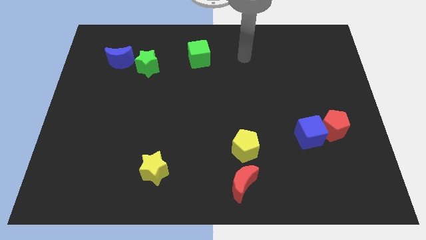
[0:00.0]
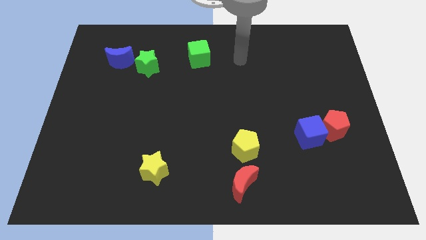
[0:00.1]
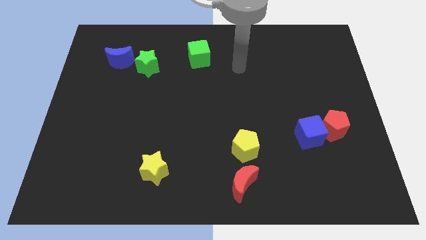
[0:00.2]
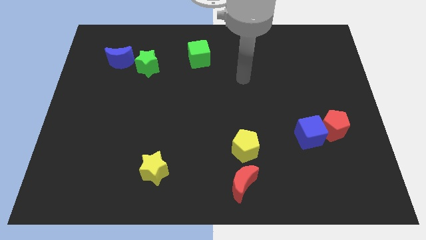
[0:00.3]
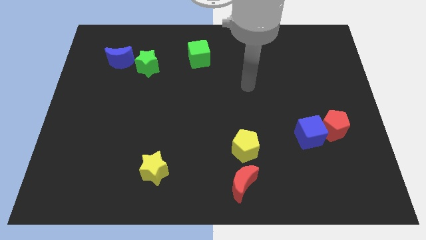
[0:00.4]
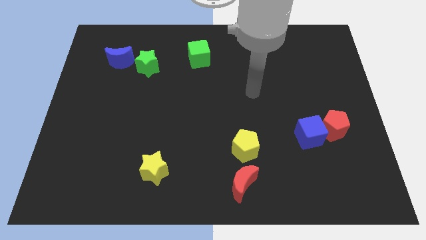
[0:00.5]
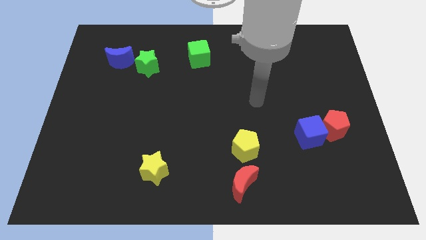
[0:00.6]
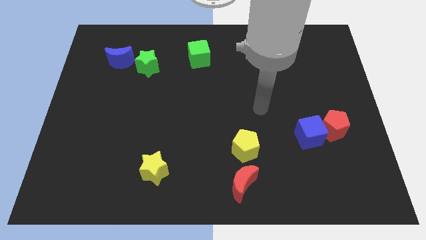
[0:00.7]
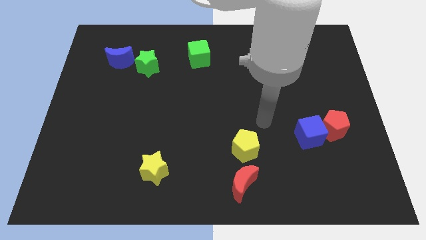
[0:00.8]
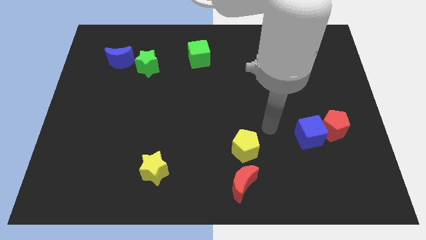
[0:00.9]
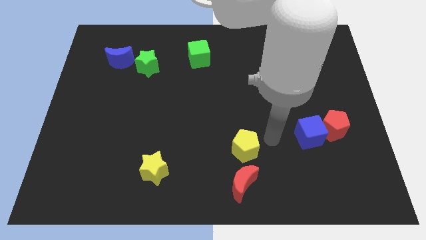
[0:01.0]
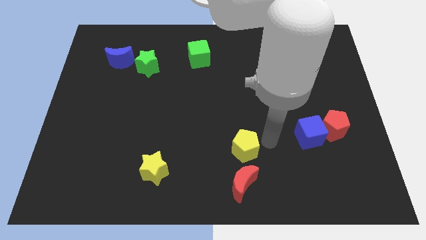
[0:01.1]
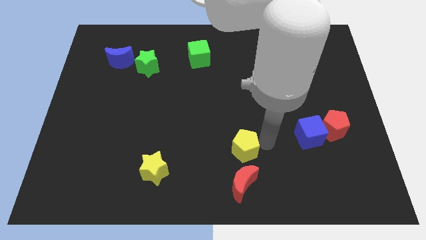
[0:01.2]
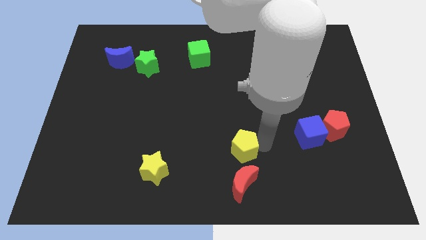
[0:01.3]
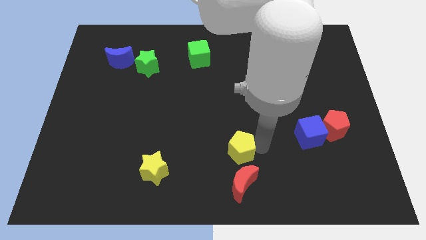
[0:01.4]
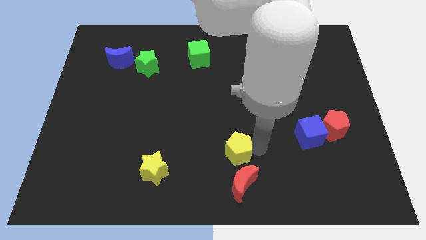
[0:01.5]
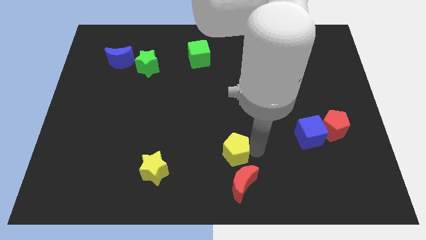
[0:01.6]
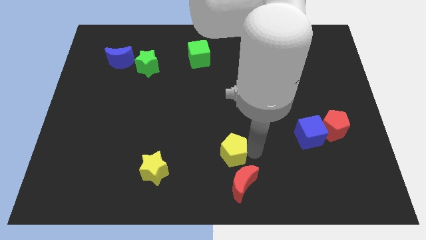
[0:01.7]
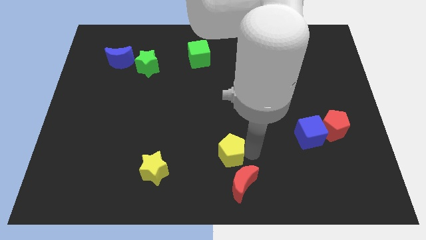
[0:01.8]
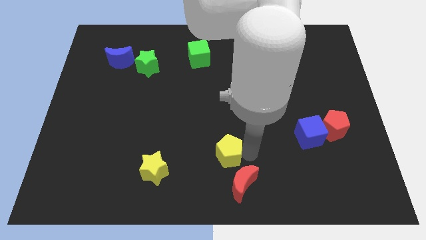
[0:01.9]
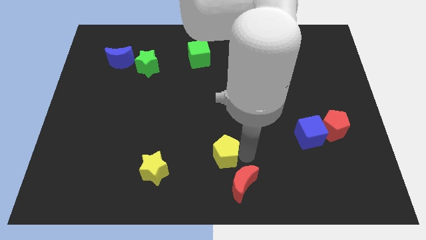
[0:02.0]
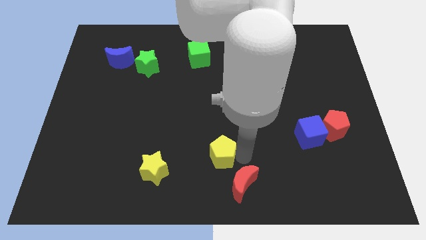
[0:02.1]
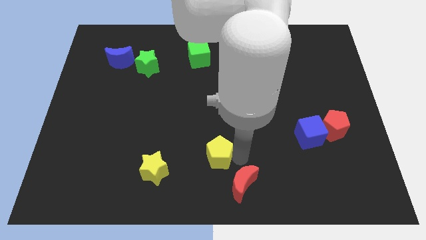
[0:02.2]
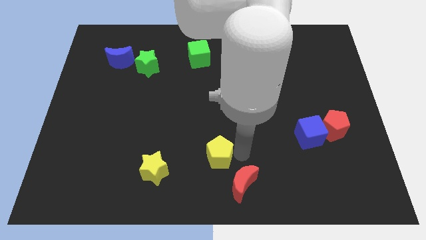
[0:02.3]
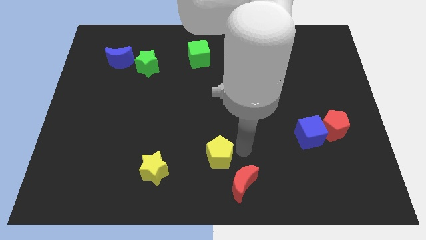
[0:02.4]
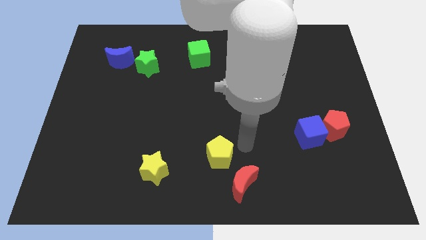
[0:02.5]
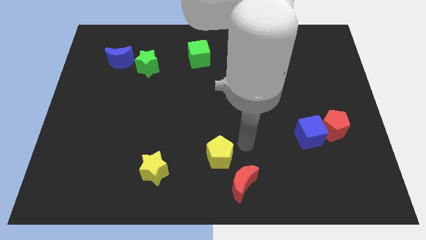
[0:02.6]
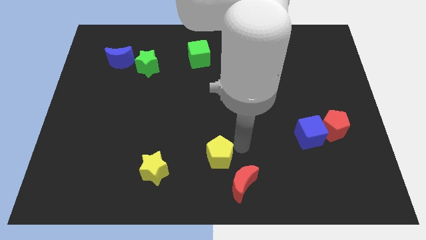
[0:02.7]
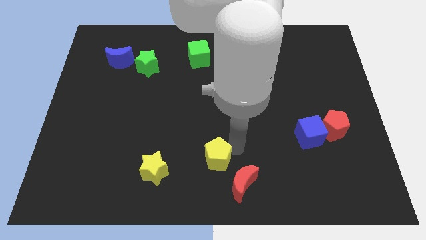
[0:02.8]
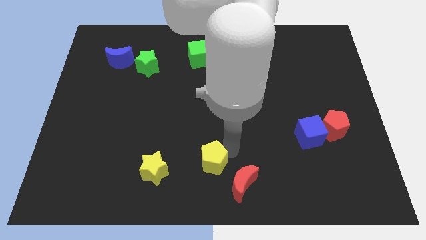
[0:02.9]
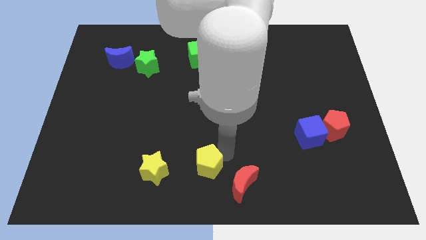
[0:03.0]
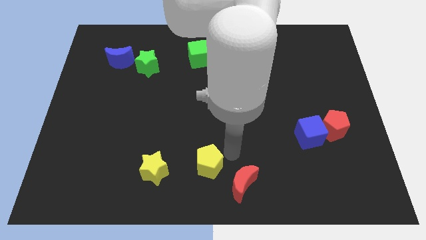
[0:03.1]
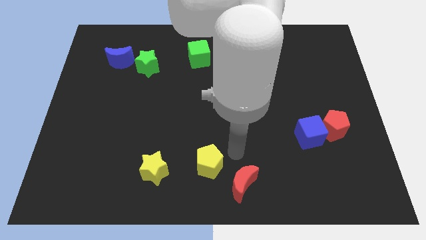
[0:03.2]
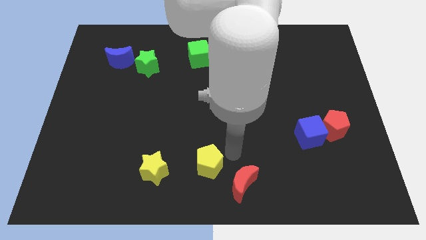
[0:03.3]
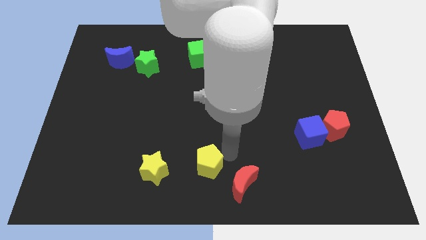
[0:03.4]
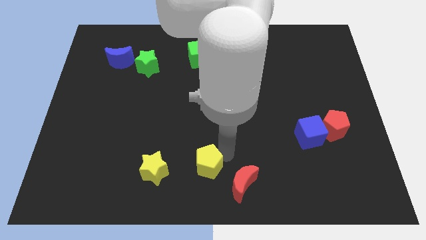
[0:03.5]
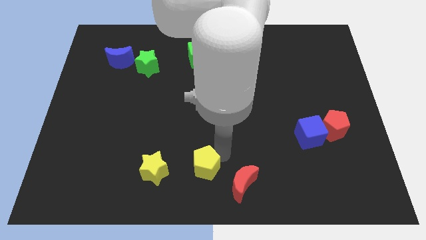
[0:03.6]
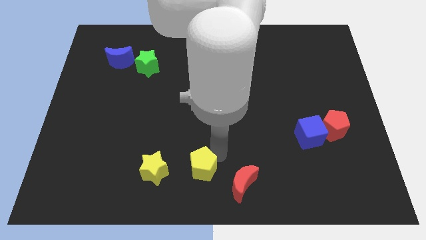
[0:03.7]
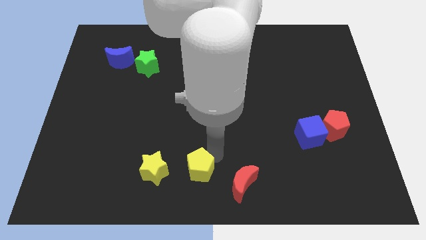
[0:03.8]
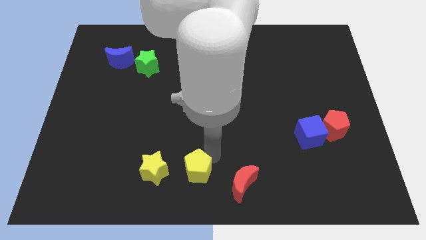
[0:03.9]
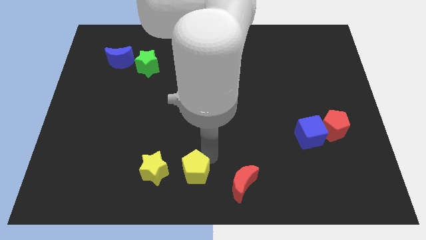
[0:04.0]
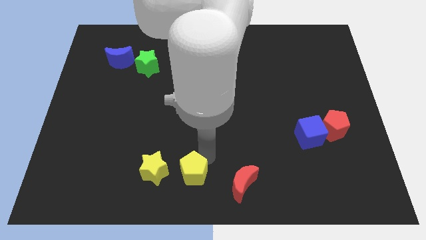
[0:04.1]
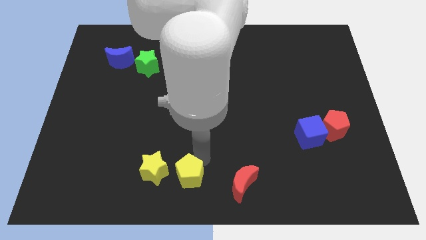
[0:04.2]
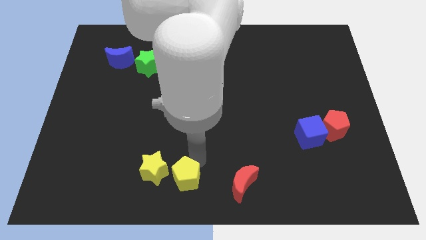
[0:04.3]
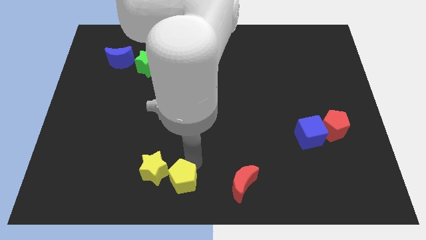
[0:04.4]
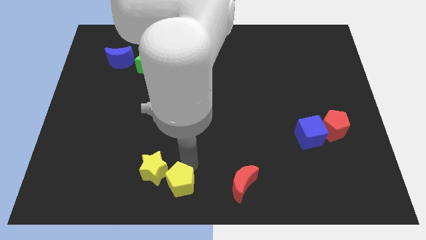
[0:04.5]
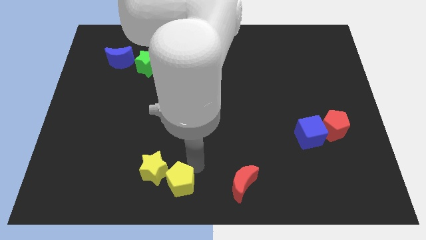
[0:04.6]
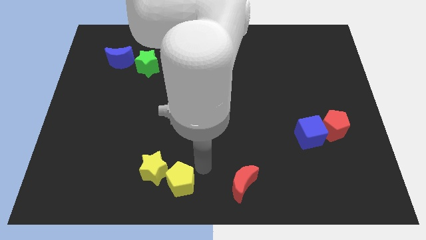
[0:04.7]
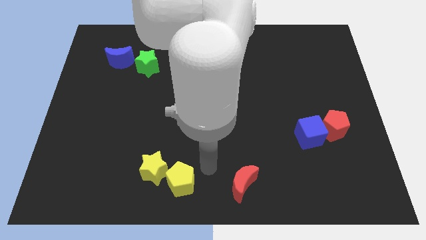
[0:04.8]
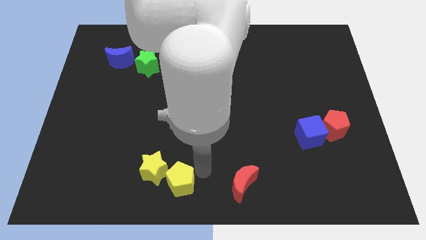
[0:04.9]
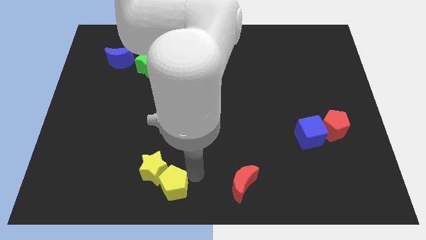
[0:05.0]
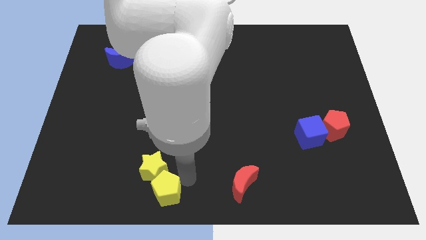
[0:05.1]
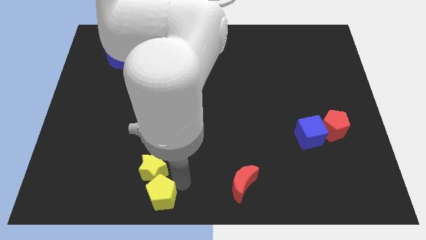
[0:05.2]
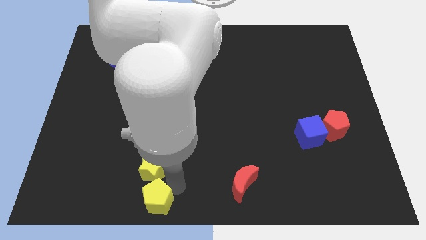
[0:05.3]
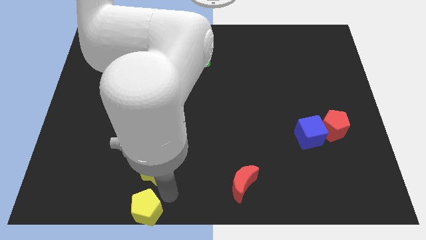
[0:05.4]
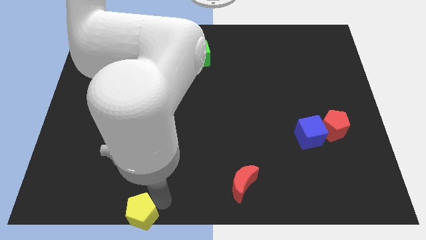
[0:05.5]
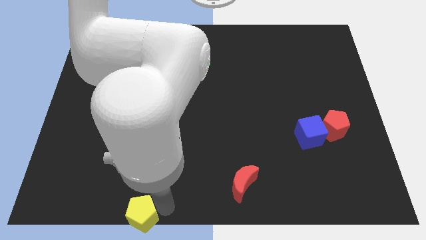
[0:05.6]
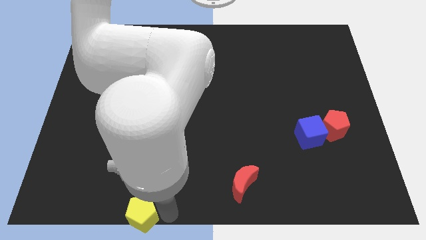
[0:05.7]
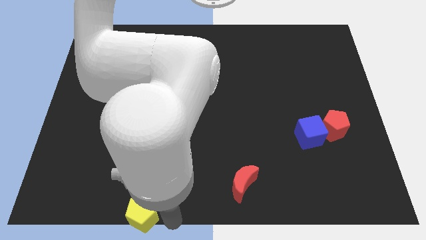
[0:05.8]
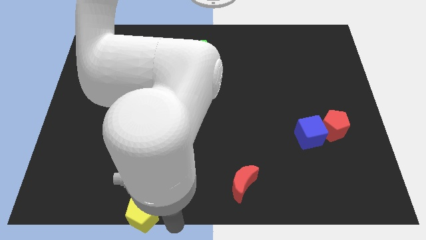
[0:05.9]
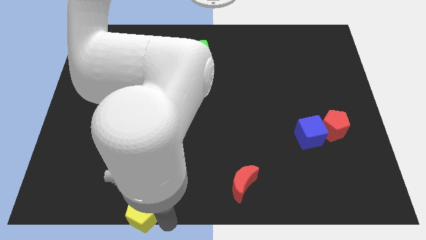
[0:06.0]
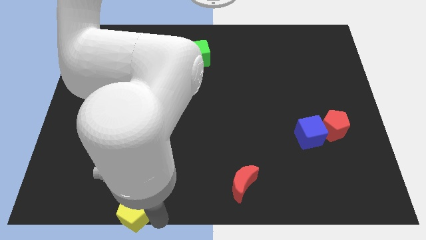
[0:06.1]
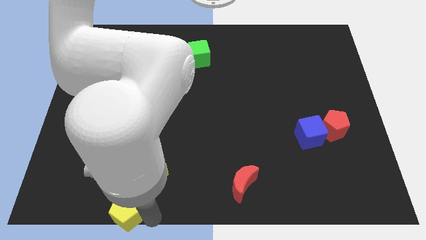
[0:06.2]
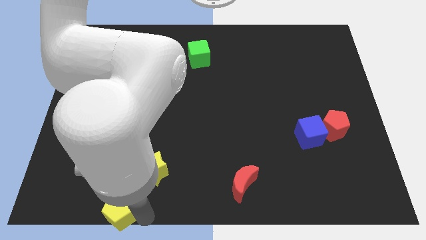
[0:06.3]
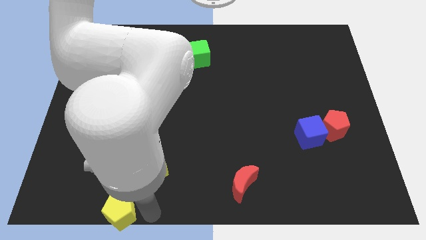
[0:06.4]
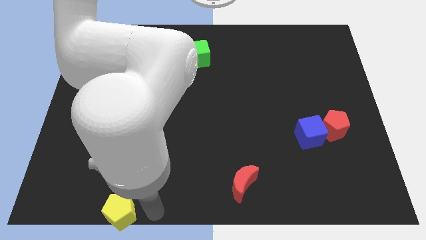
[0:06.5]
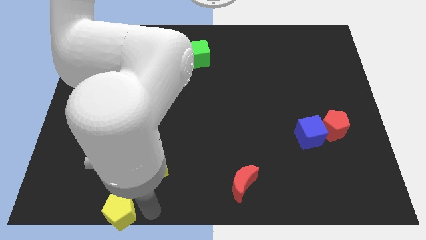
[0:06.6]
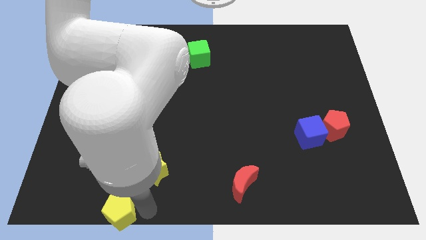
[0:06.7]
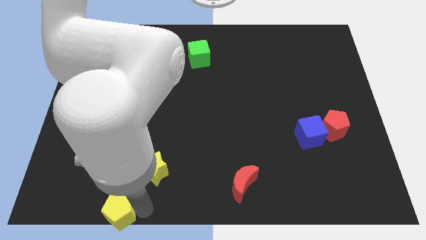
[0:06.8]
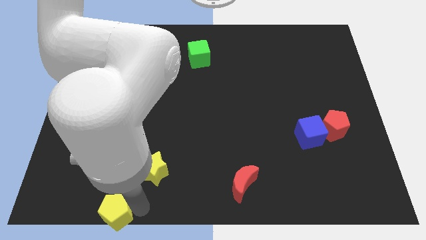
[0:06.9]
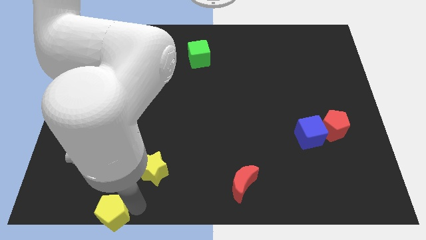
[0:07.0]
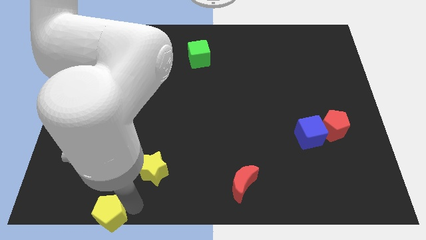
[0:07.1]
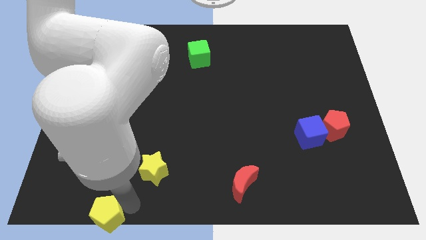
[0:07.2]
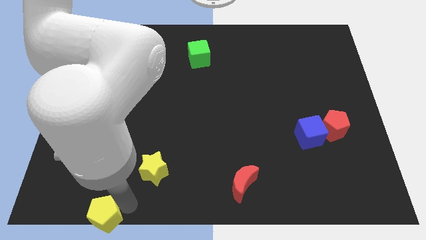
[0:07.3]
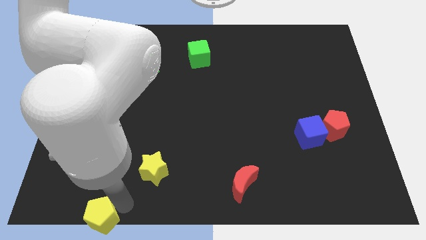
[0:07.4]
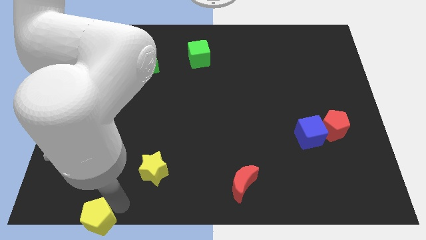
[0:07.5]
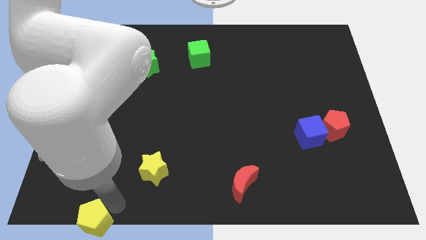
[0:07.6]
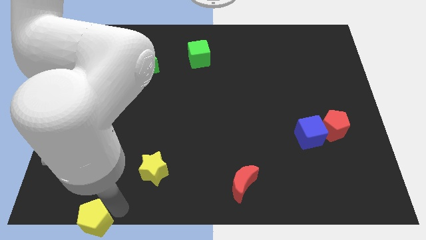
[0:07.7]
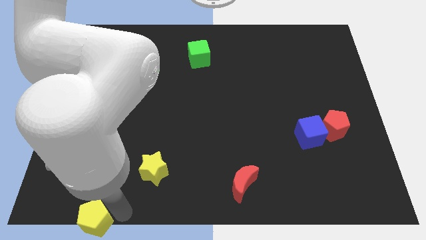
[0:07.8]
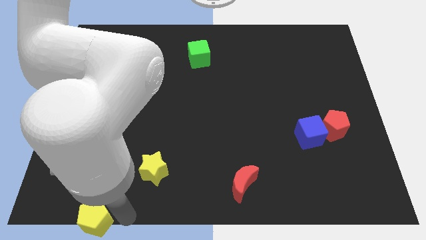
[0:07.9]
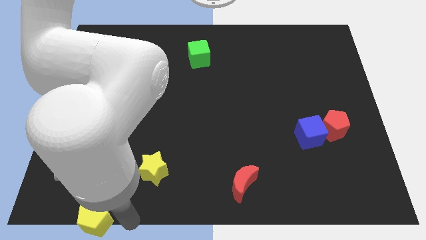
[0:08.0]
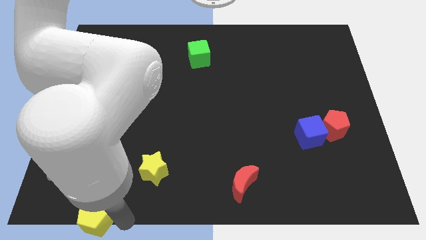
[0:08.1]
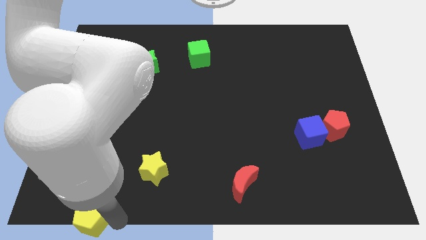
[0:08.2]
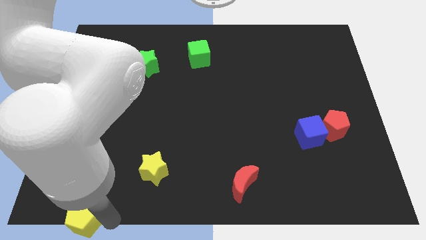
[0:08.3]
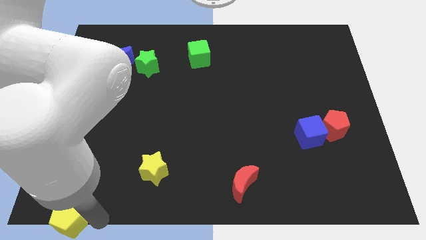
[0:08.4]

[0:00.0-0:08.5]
slide the yellow pentagon to the lower left corner
